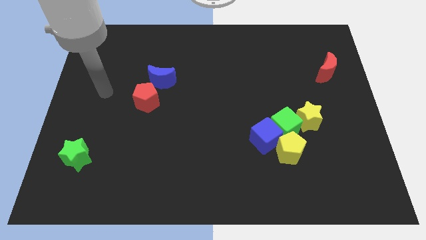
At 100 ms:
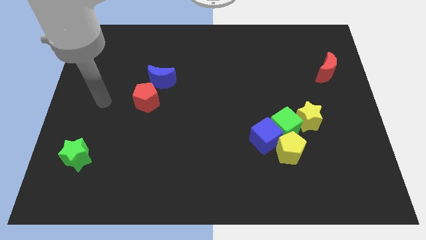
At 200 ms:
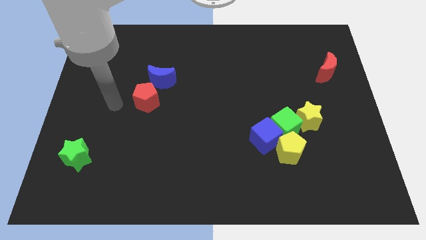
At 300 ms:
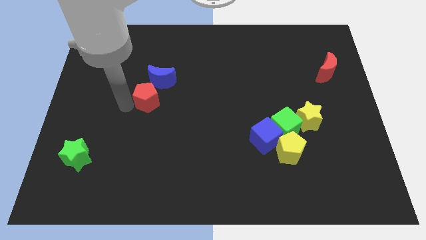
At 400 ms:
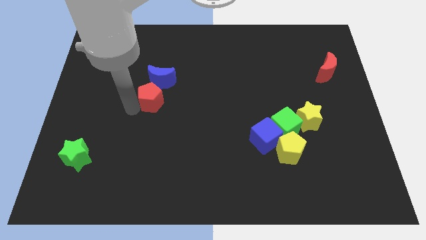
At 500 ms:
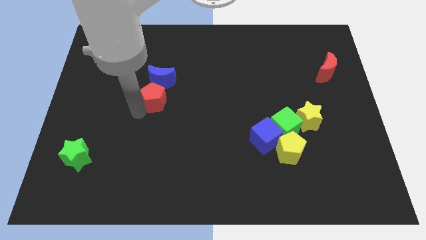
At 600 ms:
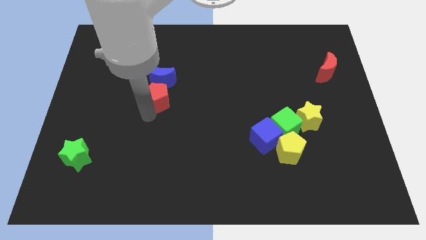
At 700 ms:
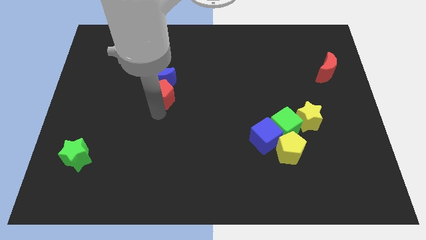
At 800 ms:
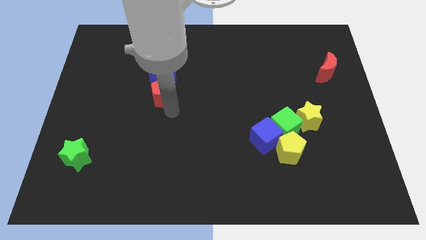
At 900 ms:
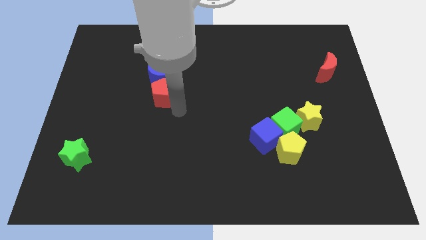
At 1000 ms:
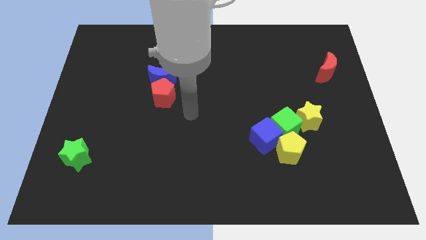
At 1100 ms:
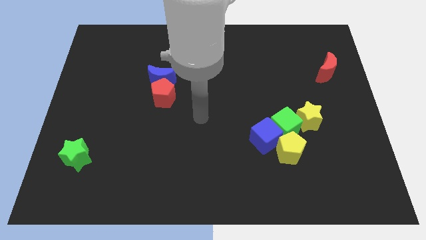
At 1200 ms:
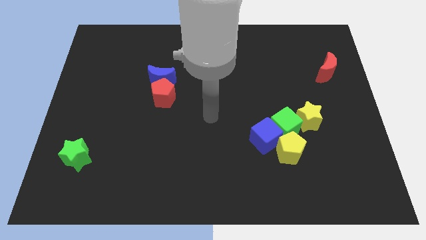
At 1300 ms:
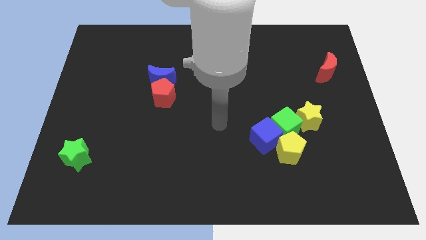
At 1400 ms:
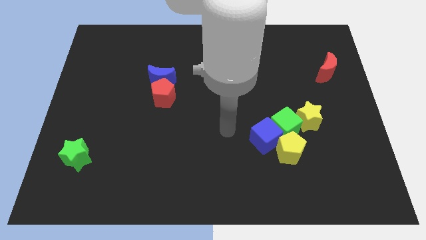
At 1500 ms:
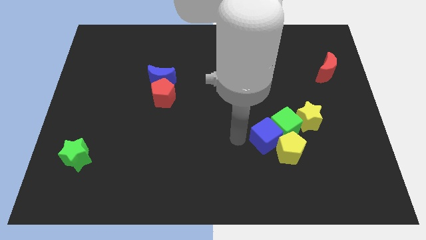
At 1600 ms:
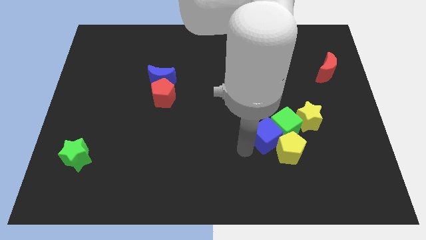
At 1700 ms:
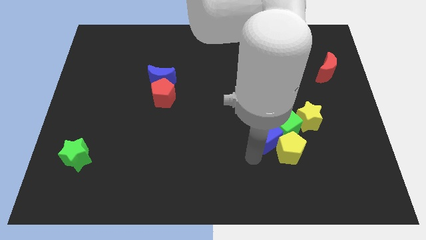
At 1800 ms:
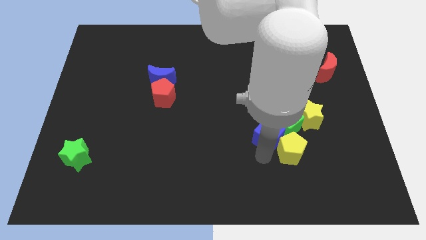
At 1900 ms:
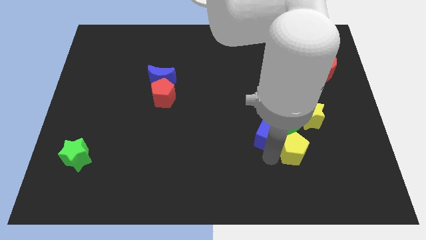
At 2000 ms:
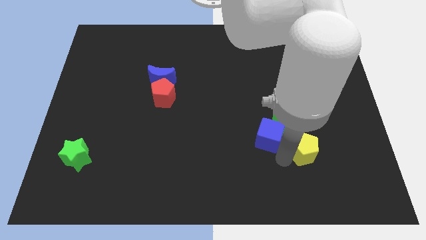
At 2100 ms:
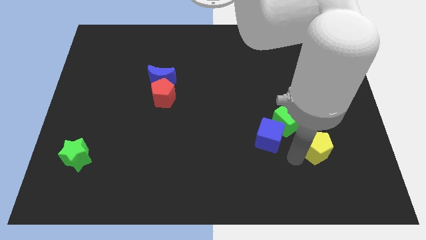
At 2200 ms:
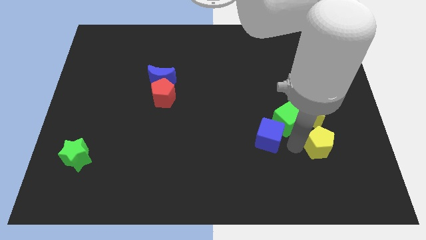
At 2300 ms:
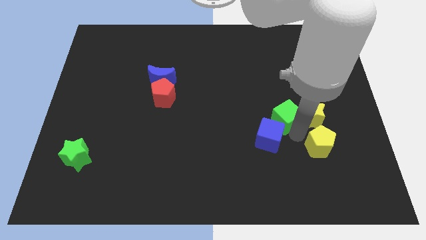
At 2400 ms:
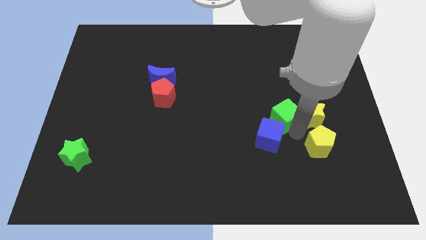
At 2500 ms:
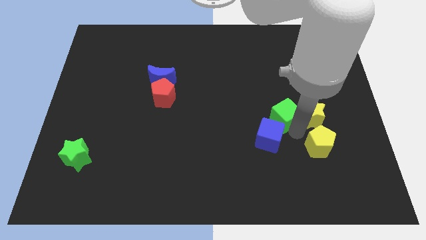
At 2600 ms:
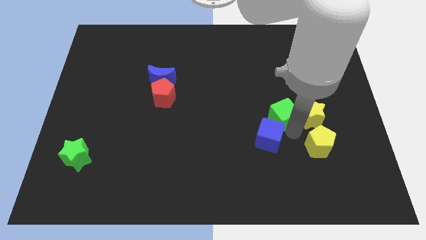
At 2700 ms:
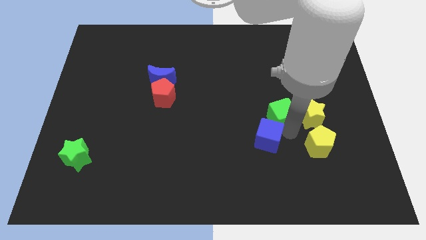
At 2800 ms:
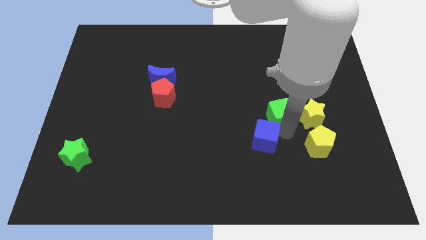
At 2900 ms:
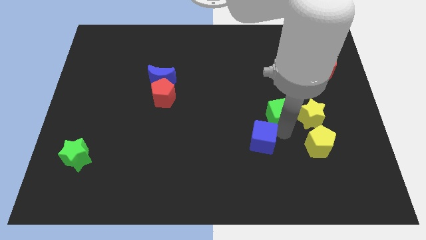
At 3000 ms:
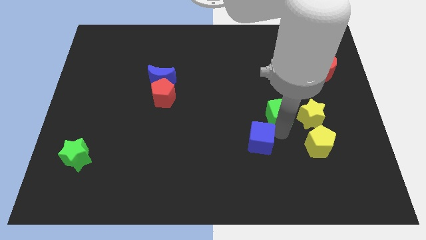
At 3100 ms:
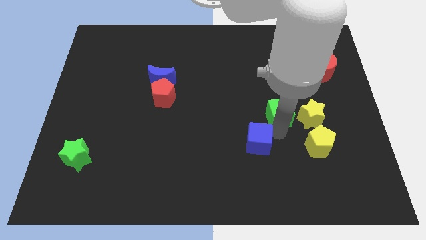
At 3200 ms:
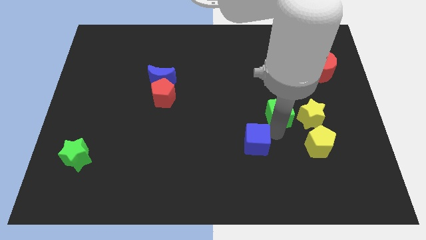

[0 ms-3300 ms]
move the blue cube away from the green cube and yellow pentagon

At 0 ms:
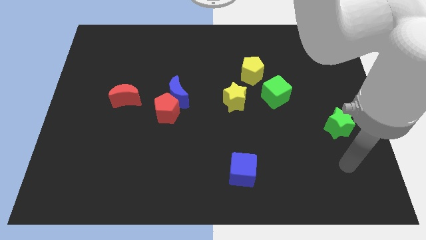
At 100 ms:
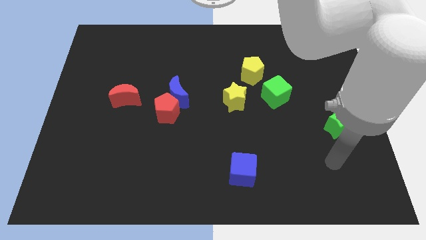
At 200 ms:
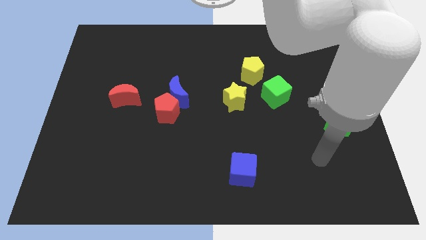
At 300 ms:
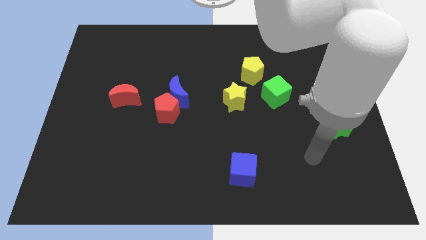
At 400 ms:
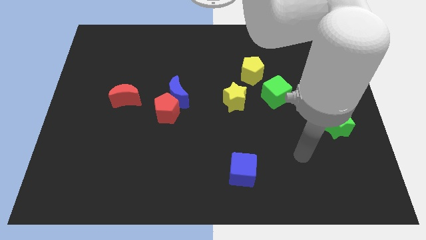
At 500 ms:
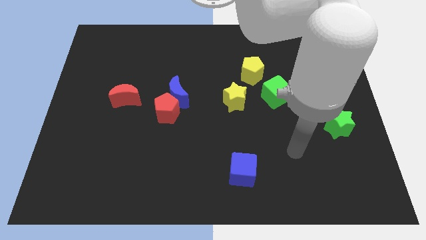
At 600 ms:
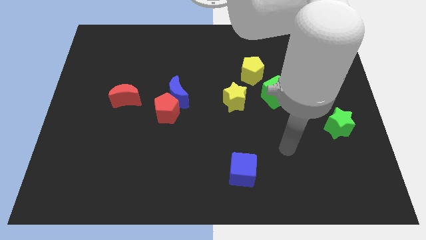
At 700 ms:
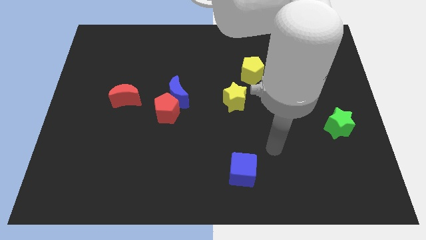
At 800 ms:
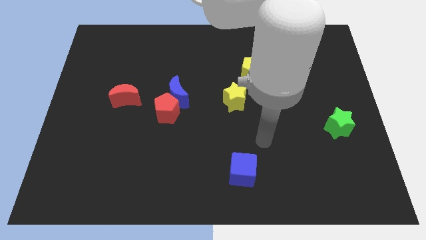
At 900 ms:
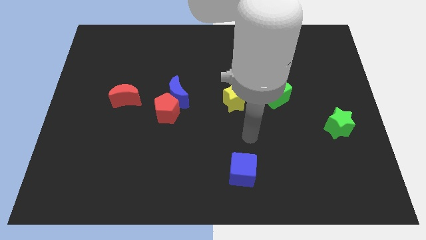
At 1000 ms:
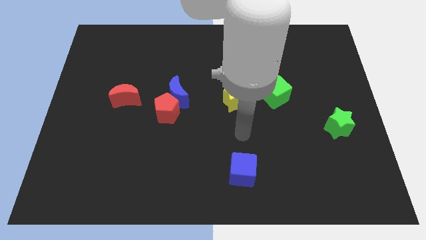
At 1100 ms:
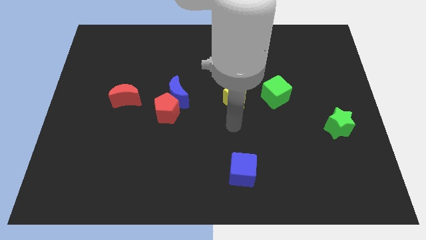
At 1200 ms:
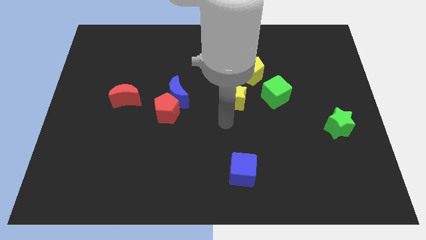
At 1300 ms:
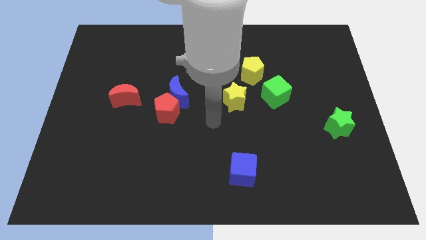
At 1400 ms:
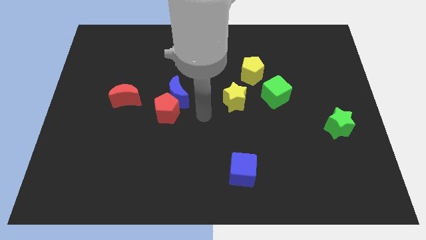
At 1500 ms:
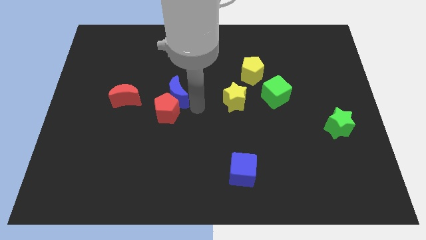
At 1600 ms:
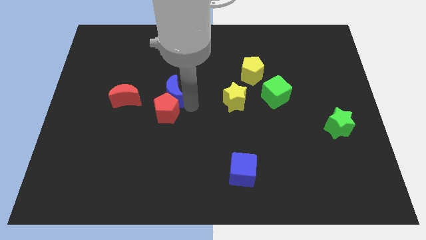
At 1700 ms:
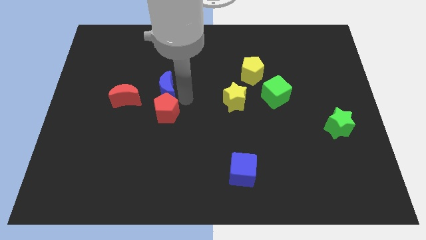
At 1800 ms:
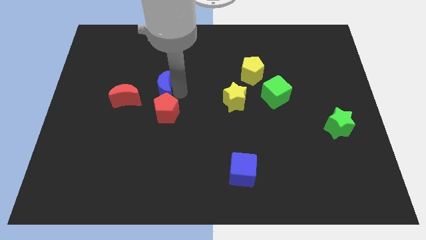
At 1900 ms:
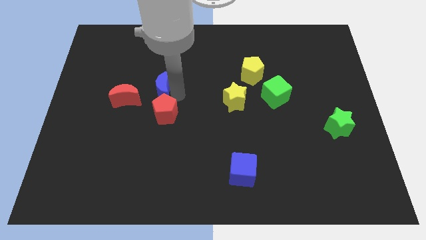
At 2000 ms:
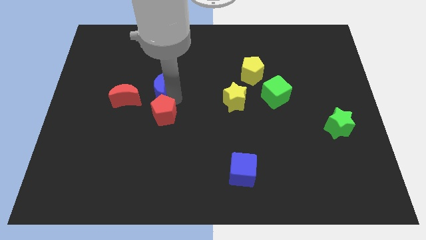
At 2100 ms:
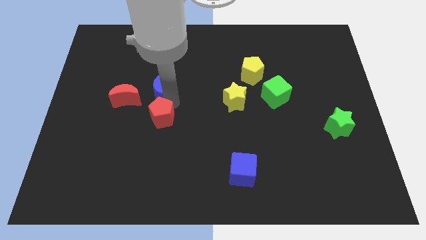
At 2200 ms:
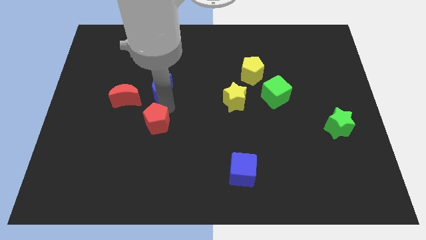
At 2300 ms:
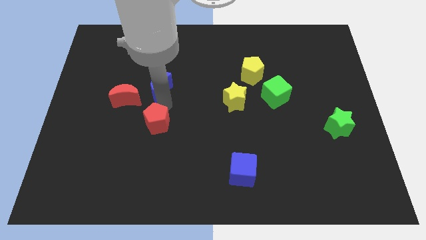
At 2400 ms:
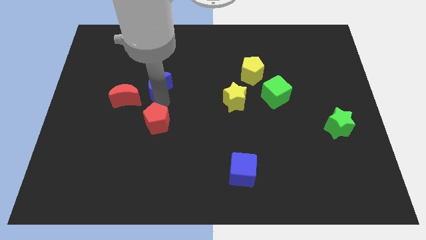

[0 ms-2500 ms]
move the red pentagon away from the blue moon

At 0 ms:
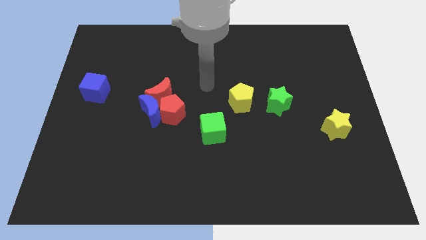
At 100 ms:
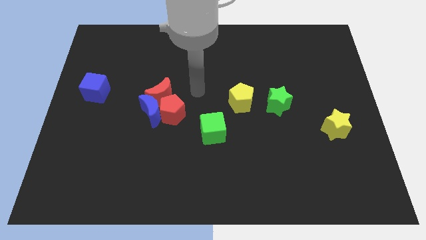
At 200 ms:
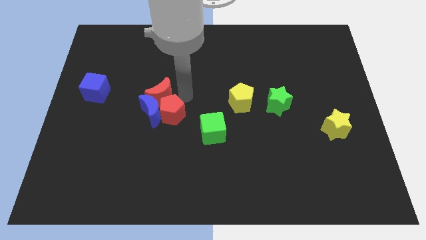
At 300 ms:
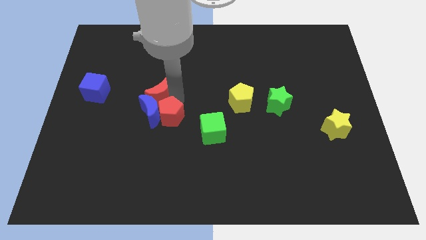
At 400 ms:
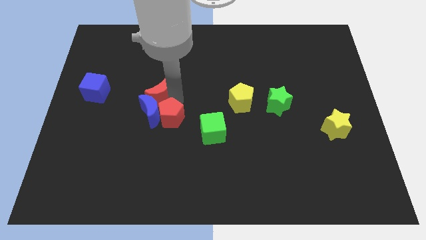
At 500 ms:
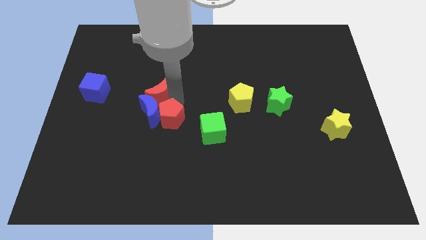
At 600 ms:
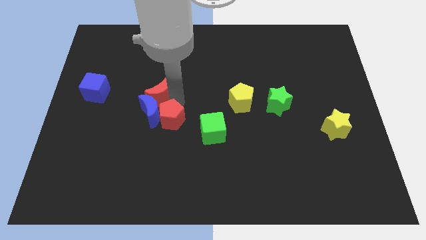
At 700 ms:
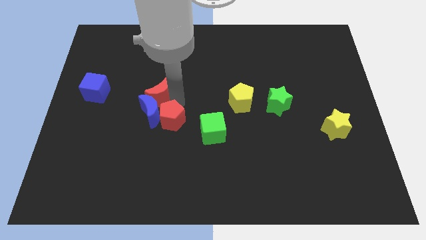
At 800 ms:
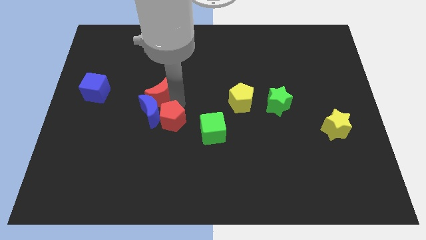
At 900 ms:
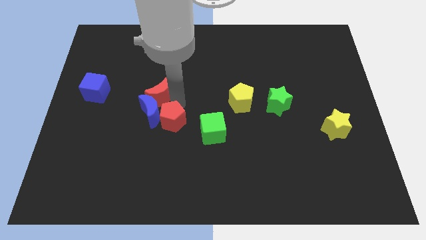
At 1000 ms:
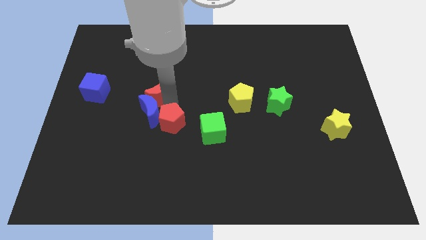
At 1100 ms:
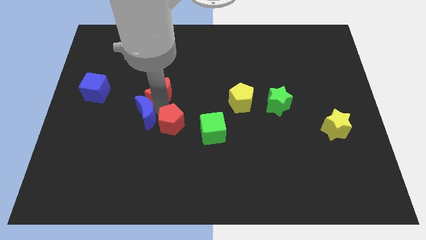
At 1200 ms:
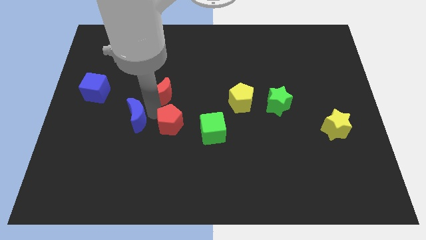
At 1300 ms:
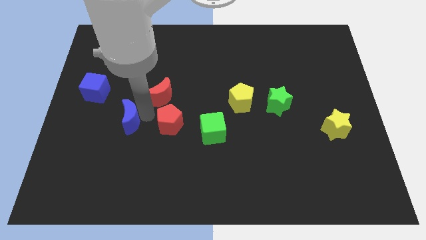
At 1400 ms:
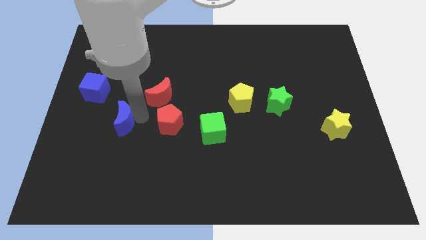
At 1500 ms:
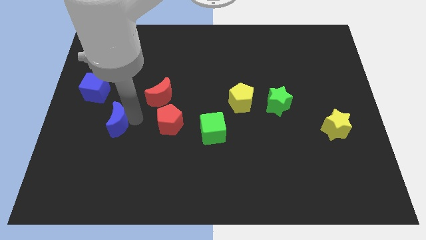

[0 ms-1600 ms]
move the blue moon away from the red pentagon and red moon

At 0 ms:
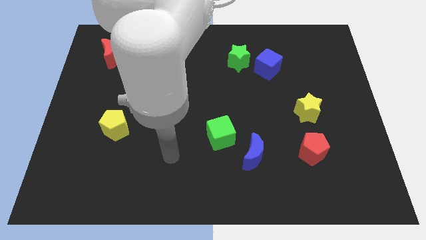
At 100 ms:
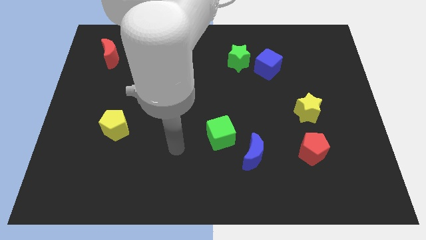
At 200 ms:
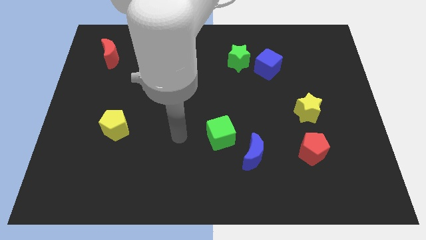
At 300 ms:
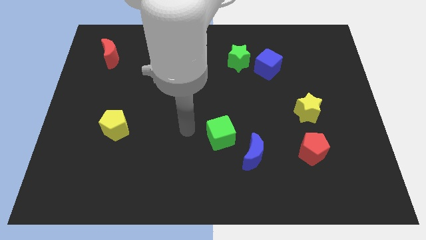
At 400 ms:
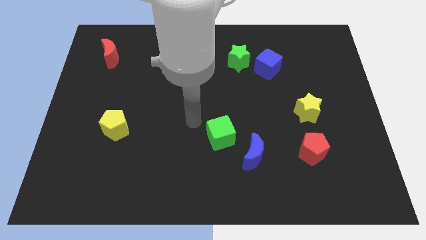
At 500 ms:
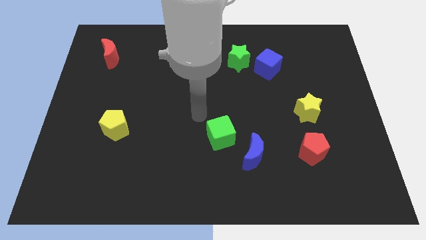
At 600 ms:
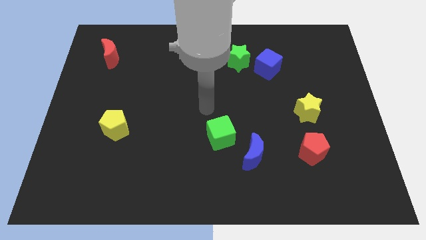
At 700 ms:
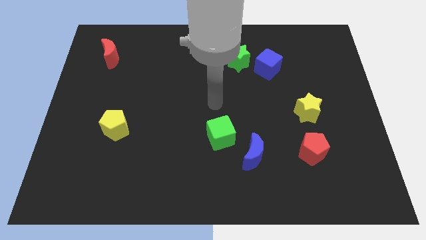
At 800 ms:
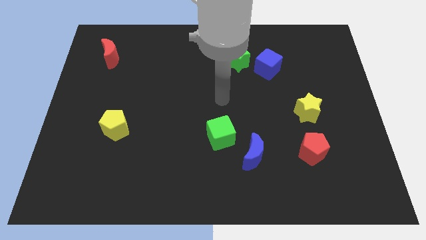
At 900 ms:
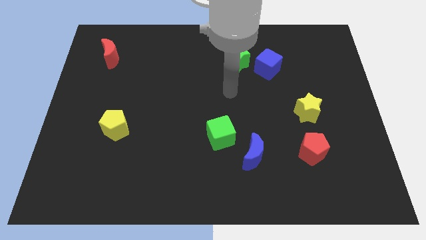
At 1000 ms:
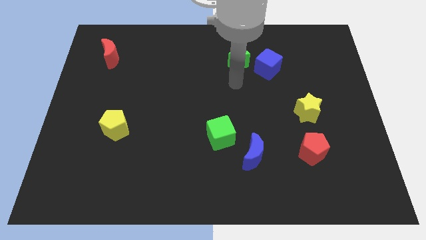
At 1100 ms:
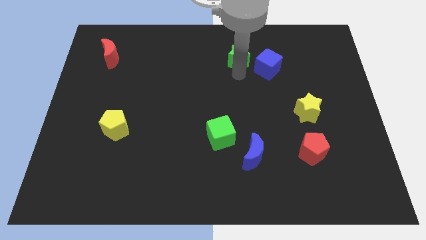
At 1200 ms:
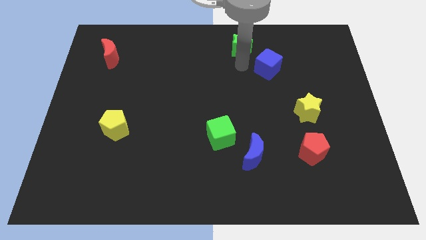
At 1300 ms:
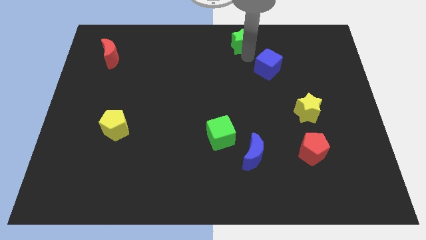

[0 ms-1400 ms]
move the blue cube away from the green star

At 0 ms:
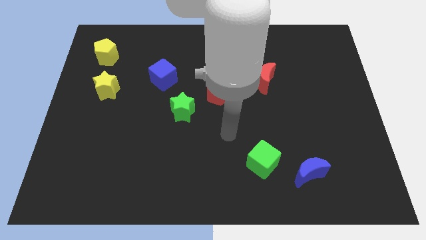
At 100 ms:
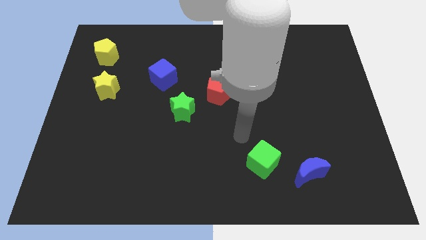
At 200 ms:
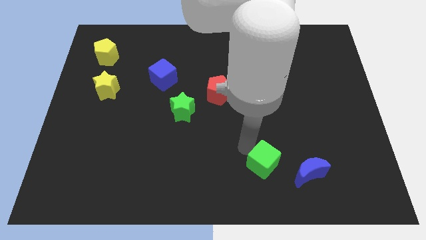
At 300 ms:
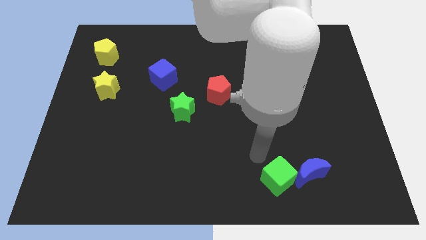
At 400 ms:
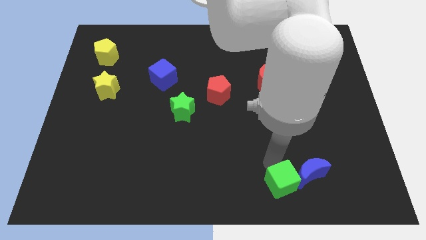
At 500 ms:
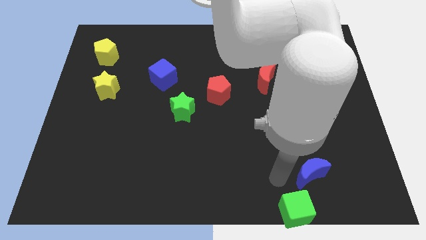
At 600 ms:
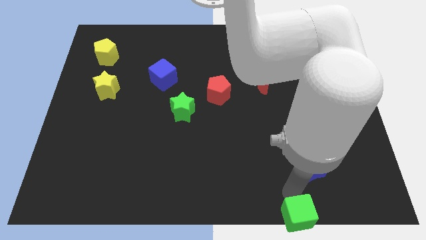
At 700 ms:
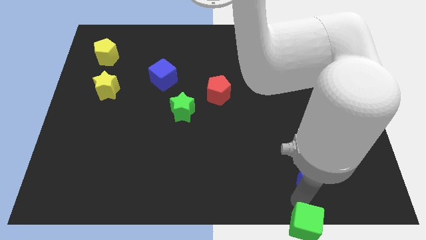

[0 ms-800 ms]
pull the blue moon apart from the green cube
